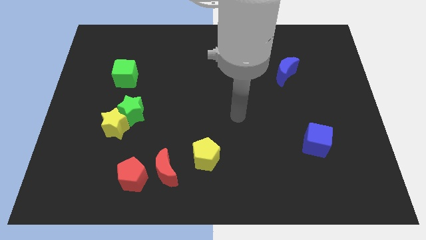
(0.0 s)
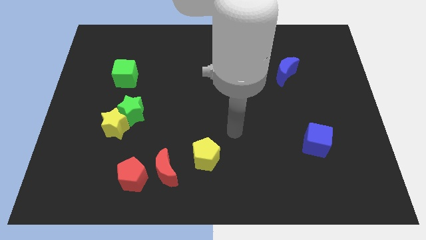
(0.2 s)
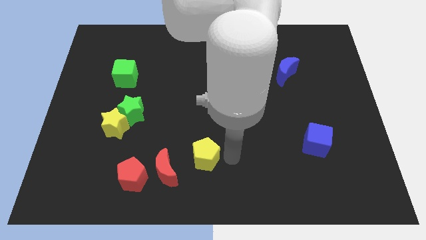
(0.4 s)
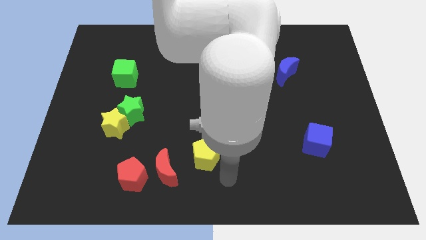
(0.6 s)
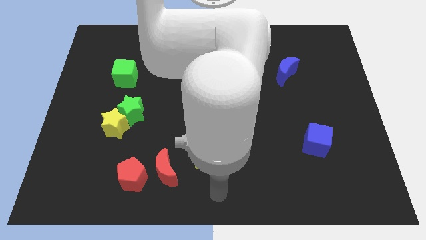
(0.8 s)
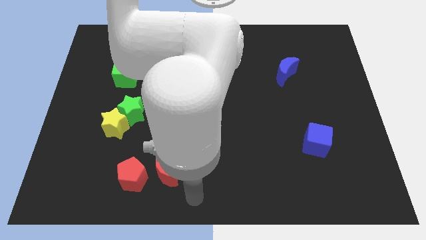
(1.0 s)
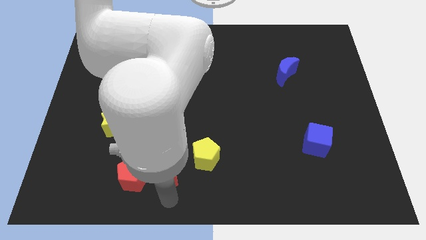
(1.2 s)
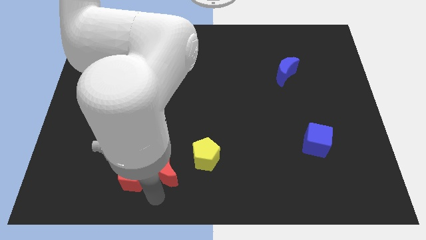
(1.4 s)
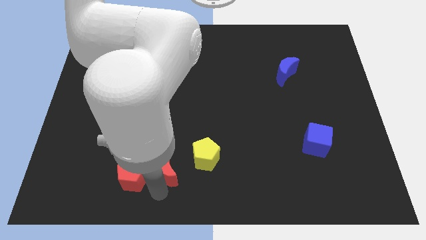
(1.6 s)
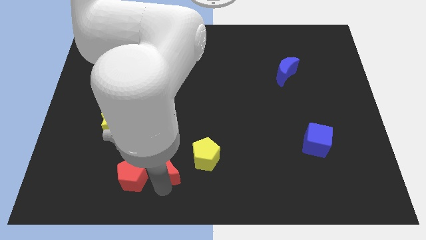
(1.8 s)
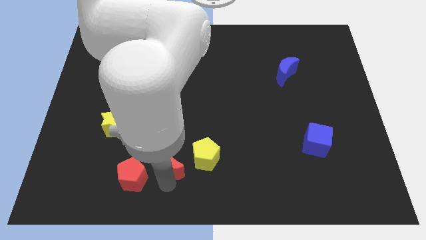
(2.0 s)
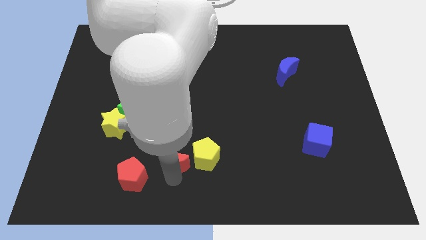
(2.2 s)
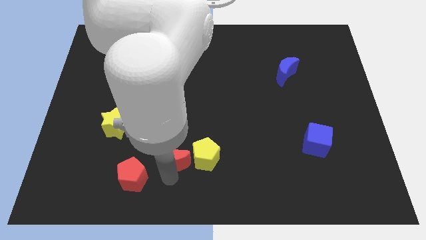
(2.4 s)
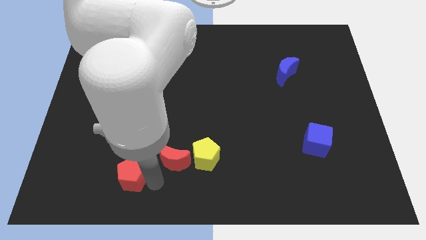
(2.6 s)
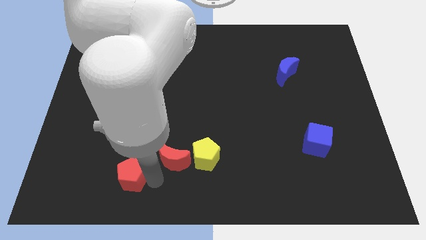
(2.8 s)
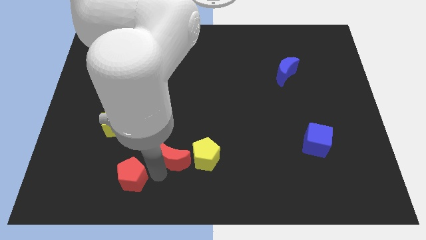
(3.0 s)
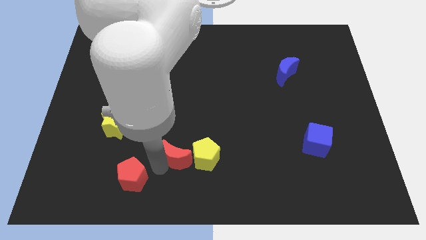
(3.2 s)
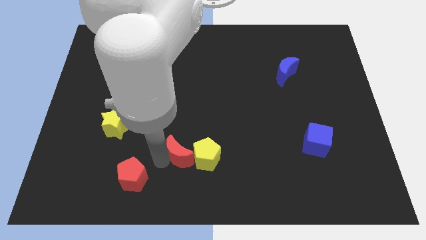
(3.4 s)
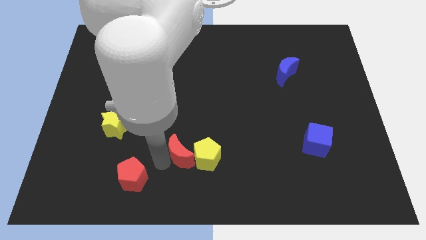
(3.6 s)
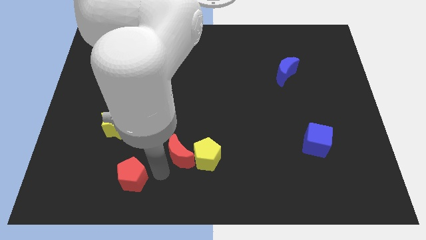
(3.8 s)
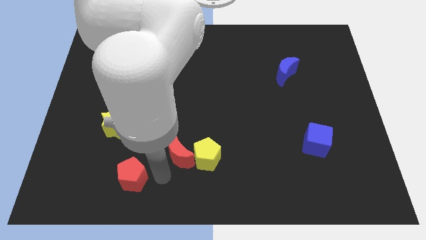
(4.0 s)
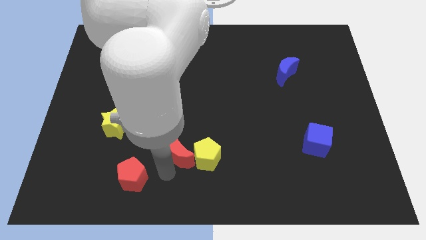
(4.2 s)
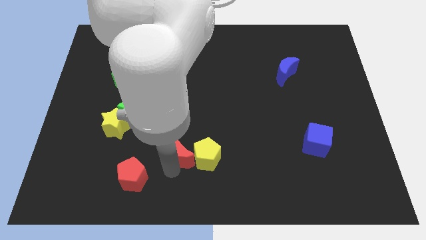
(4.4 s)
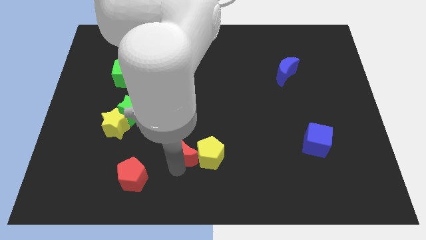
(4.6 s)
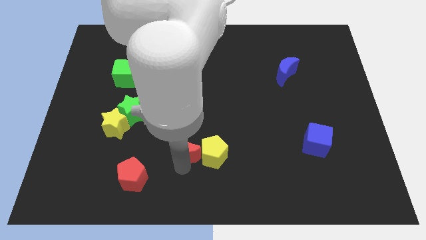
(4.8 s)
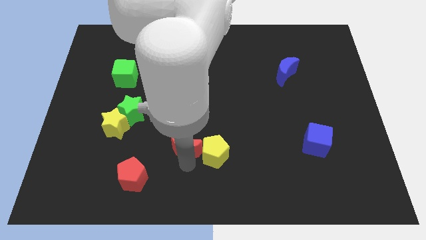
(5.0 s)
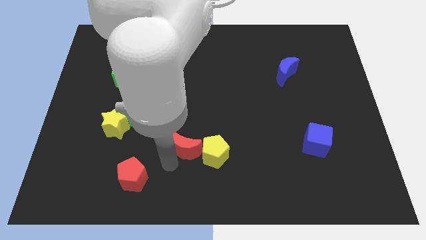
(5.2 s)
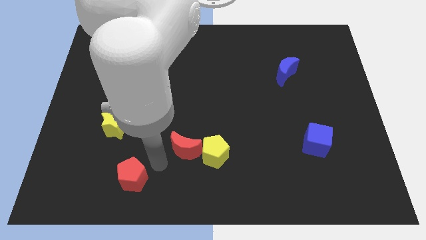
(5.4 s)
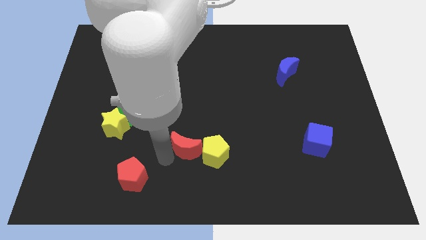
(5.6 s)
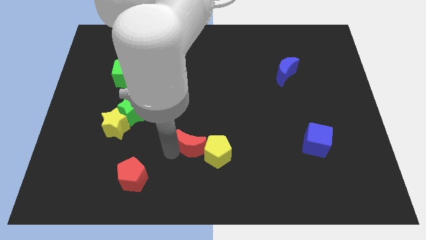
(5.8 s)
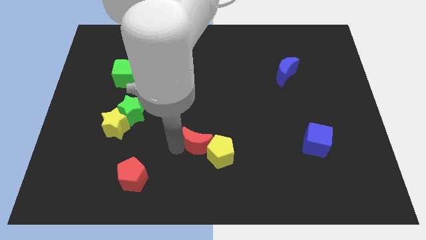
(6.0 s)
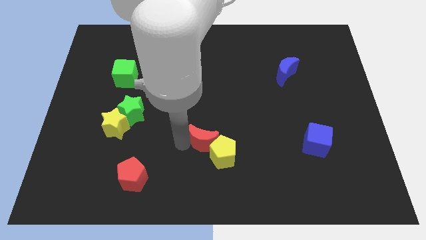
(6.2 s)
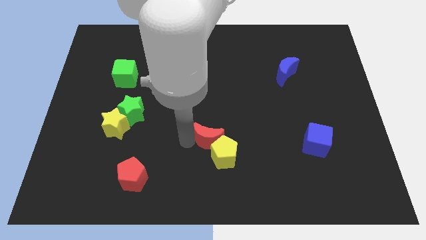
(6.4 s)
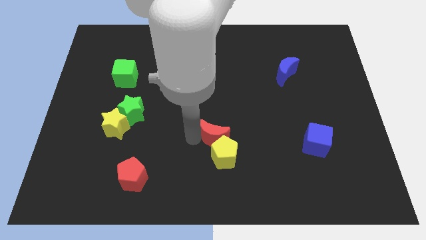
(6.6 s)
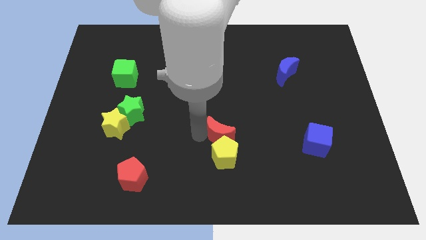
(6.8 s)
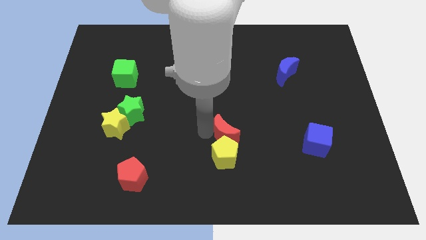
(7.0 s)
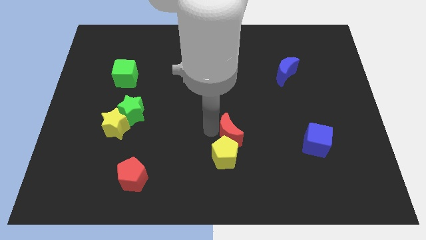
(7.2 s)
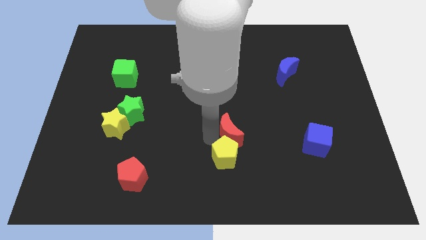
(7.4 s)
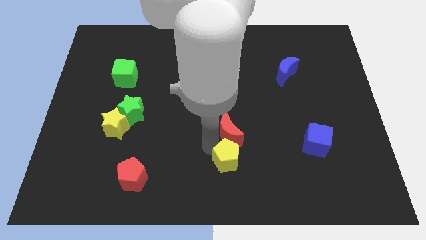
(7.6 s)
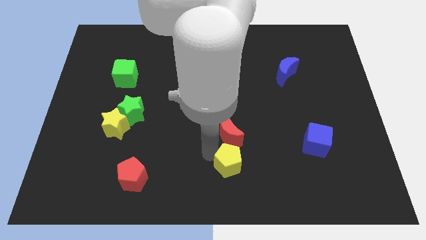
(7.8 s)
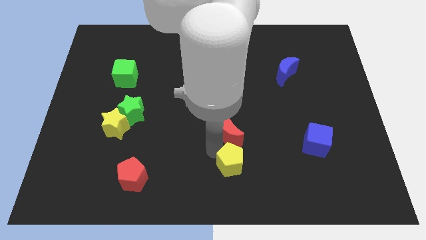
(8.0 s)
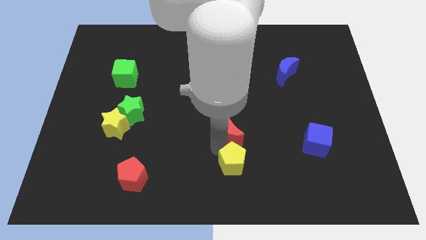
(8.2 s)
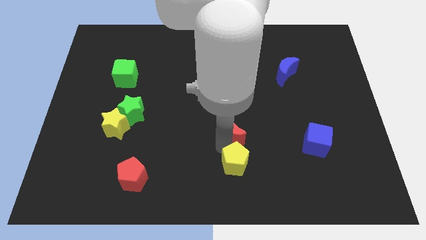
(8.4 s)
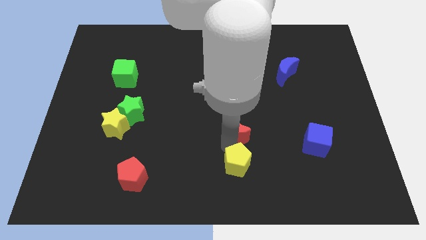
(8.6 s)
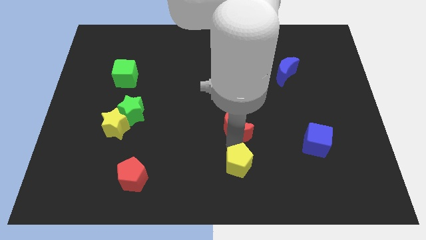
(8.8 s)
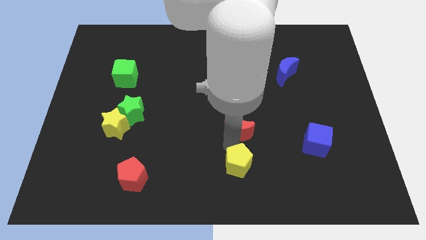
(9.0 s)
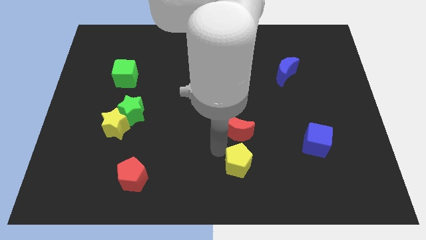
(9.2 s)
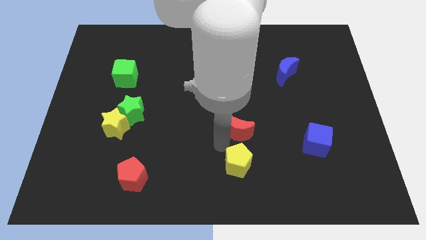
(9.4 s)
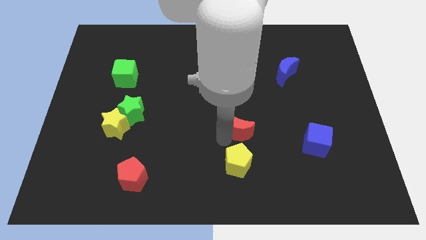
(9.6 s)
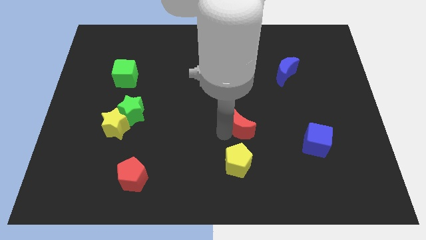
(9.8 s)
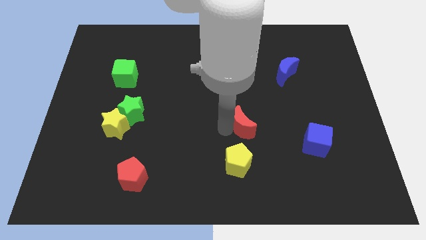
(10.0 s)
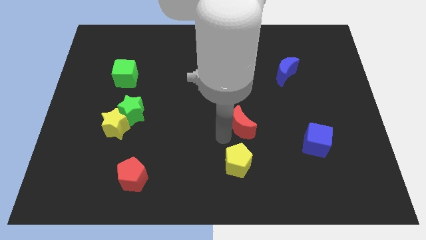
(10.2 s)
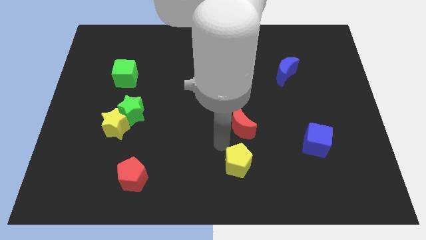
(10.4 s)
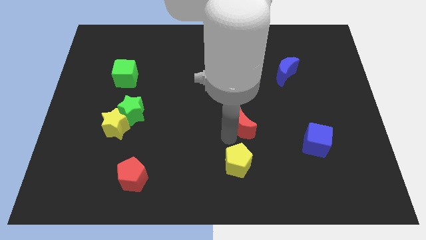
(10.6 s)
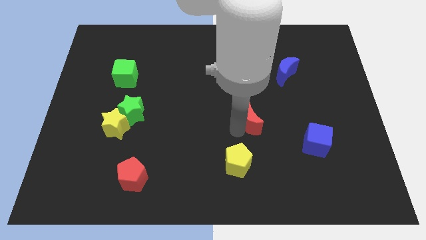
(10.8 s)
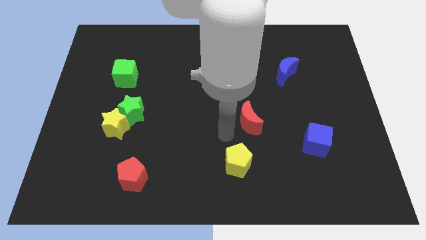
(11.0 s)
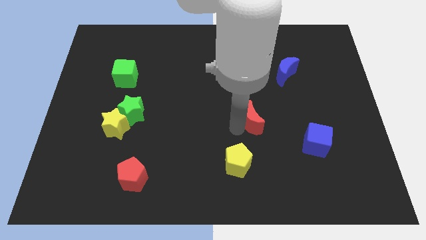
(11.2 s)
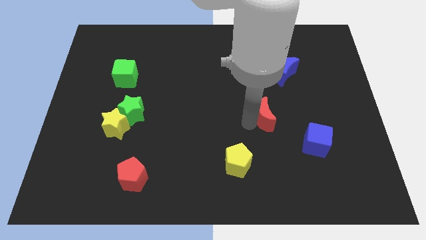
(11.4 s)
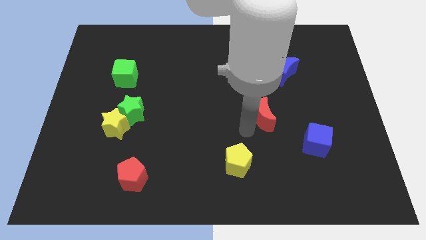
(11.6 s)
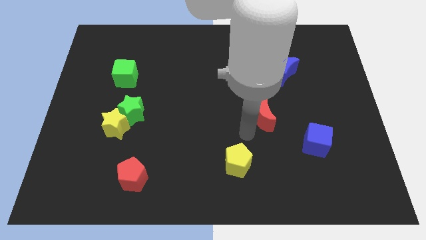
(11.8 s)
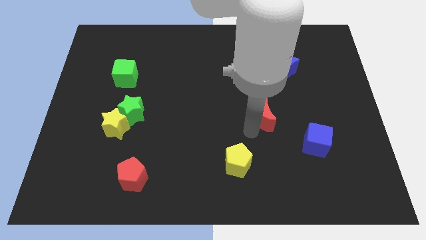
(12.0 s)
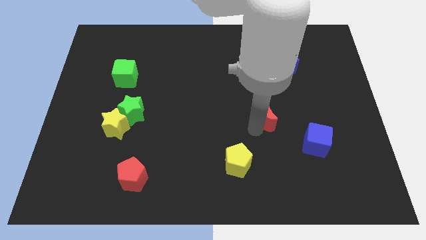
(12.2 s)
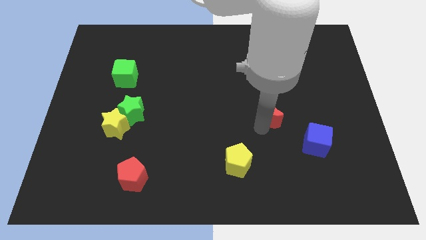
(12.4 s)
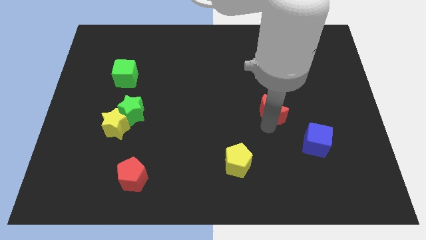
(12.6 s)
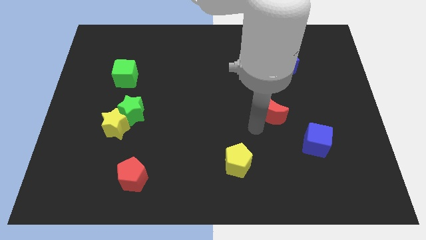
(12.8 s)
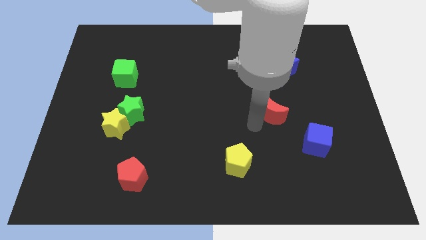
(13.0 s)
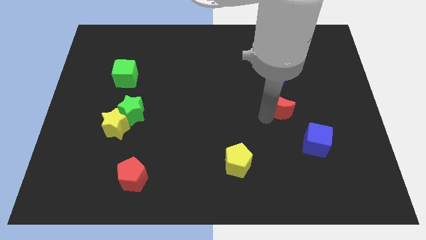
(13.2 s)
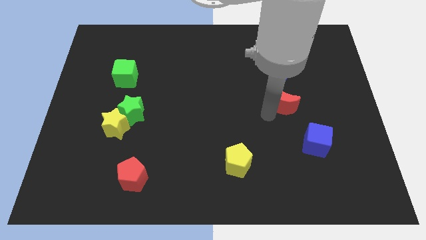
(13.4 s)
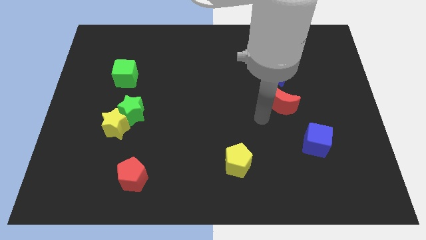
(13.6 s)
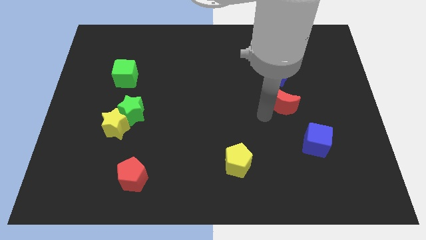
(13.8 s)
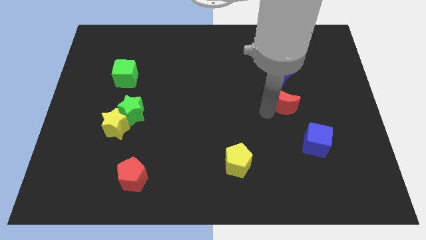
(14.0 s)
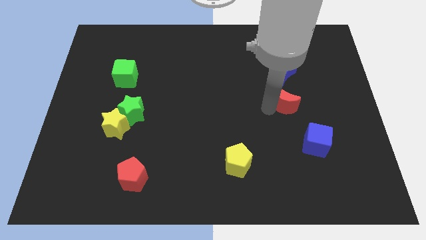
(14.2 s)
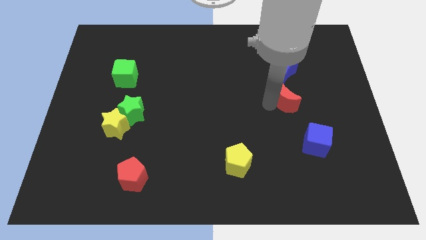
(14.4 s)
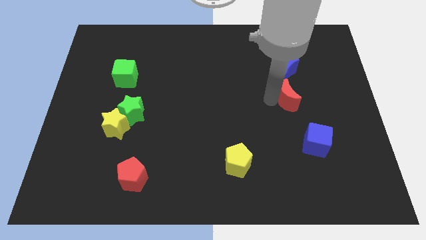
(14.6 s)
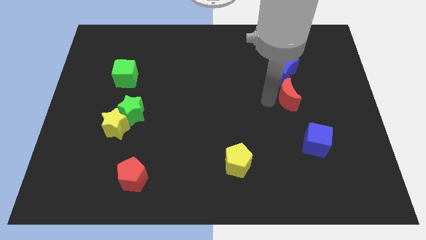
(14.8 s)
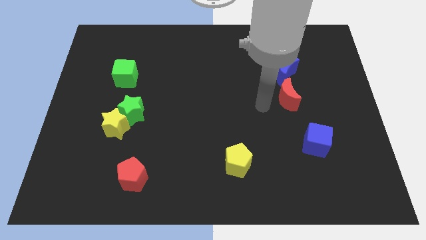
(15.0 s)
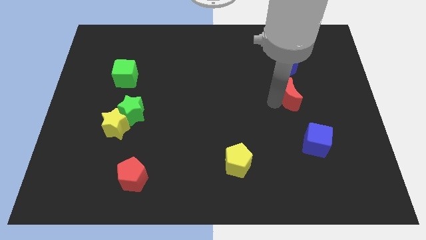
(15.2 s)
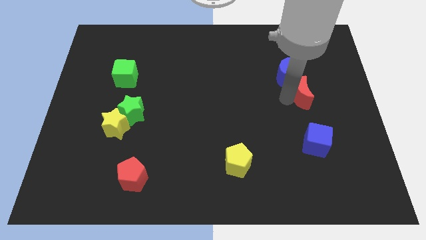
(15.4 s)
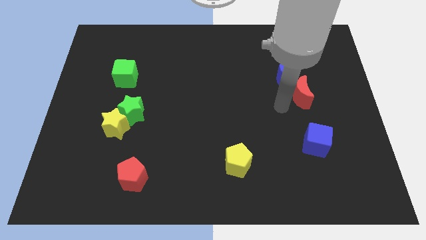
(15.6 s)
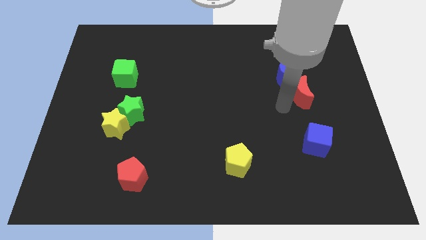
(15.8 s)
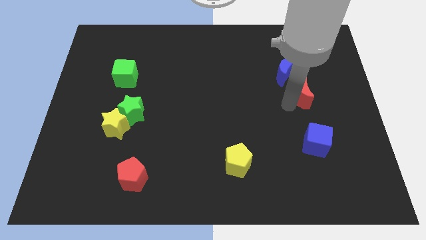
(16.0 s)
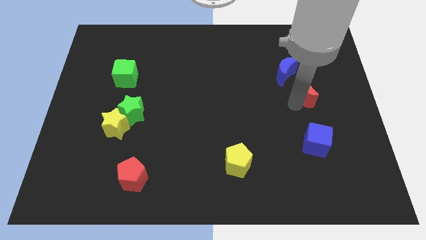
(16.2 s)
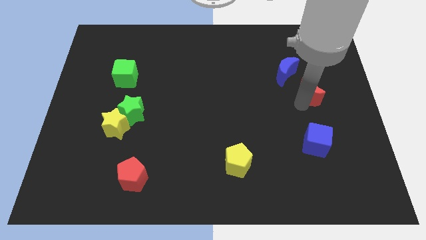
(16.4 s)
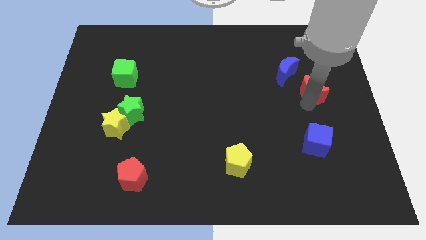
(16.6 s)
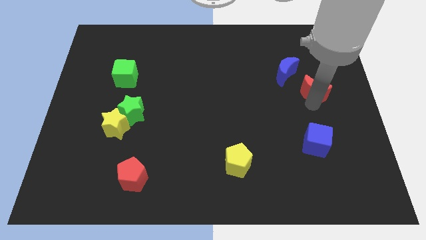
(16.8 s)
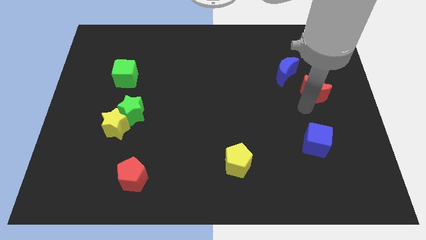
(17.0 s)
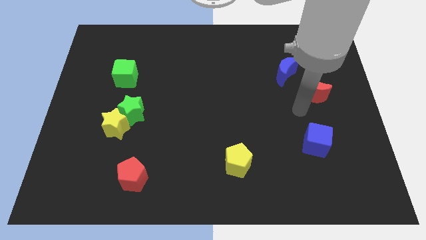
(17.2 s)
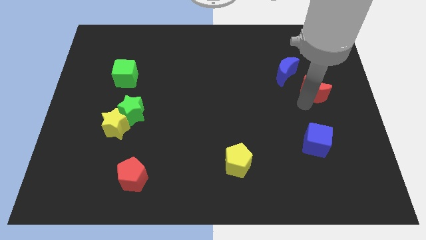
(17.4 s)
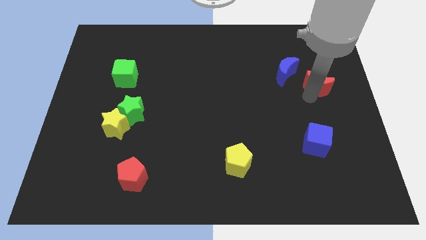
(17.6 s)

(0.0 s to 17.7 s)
move the red moon to the right side of the blue moon

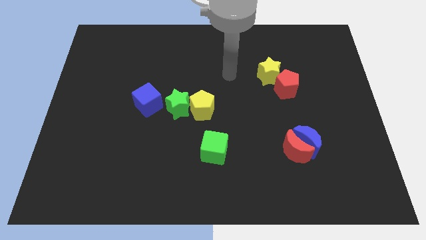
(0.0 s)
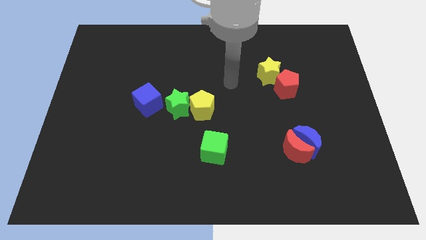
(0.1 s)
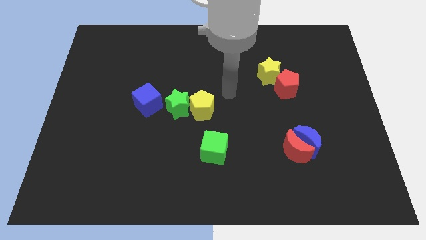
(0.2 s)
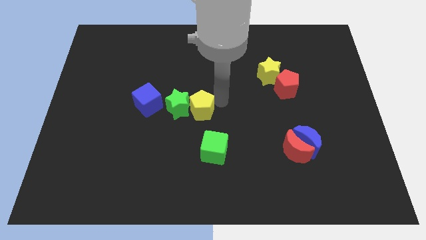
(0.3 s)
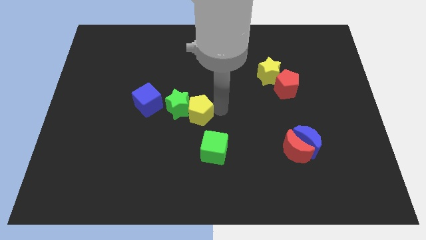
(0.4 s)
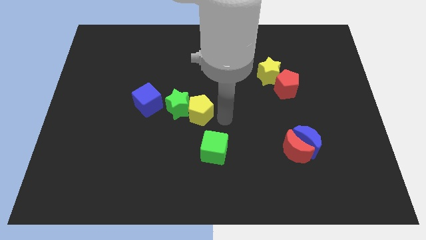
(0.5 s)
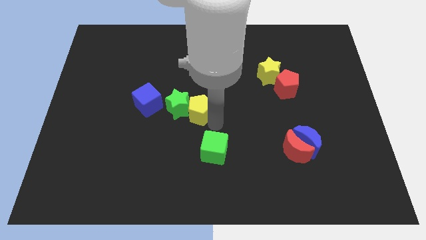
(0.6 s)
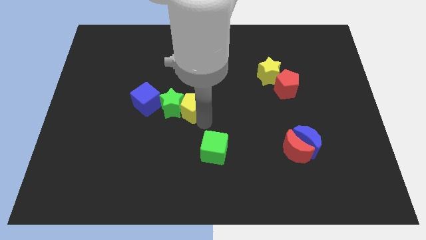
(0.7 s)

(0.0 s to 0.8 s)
put the green star diagonally up and to the right of the blue cube
